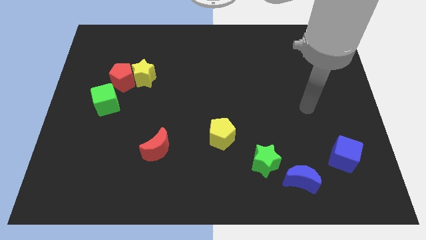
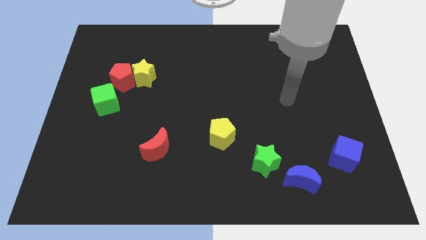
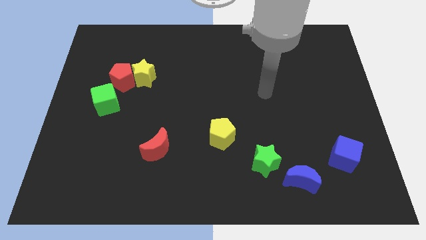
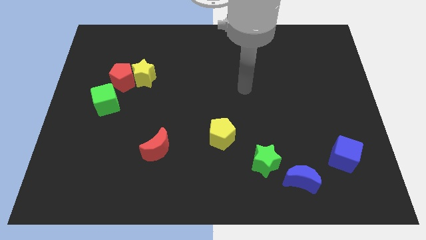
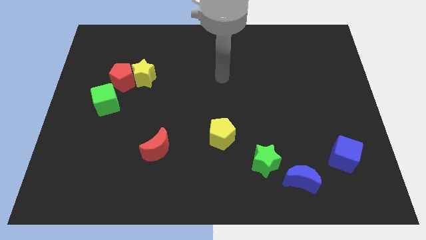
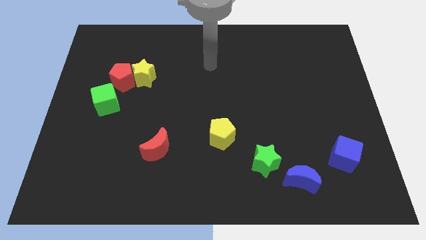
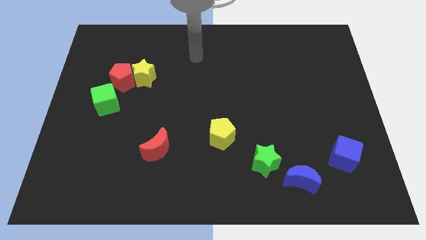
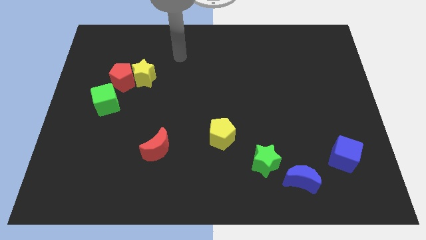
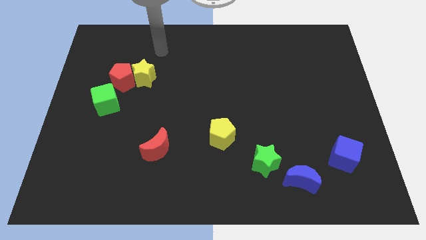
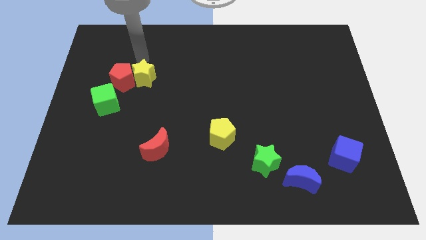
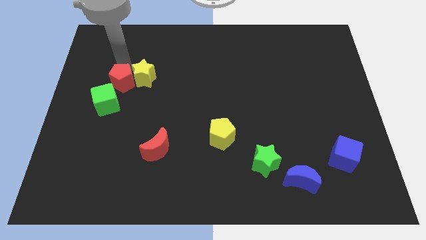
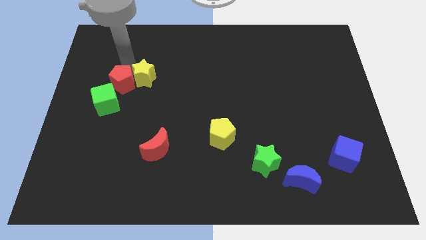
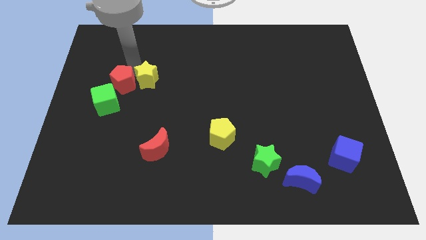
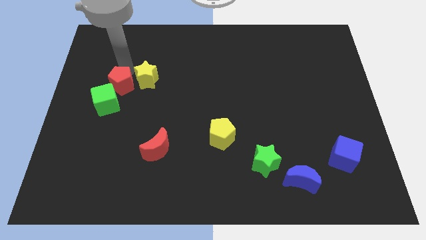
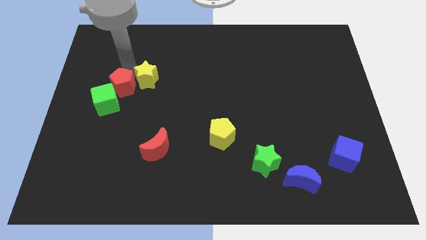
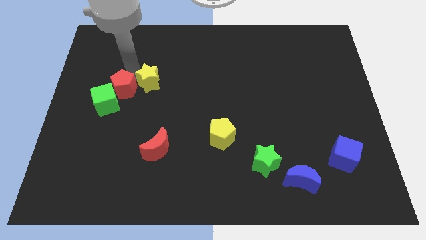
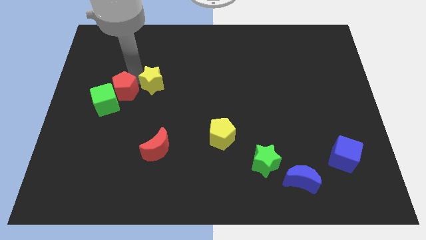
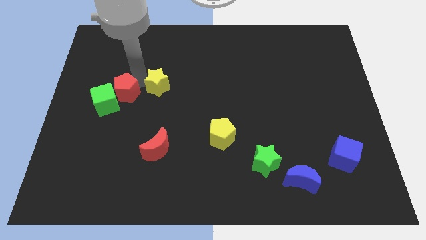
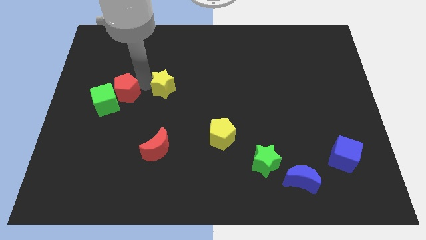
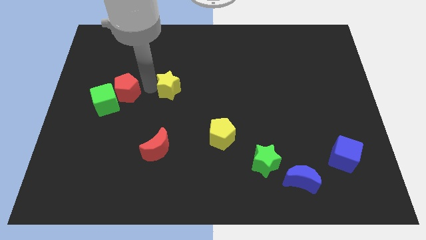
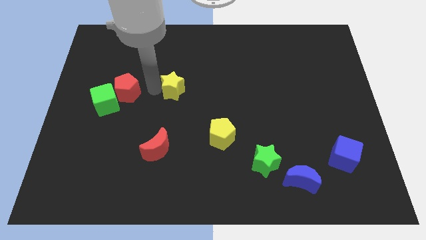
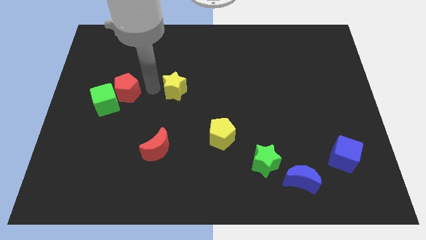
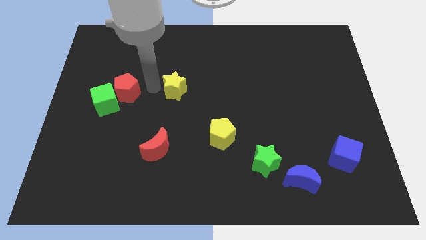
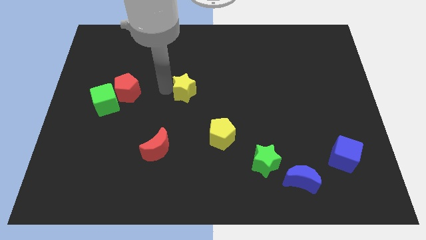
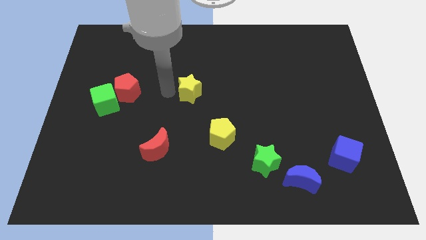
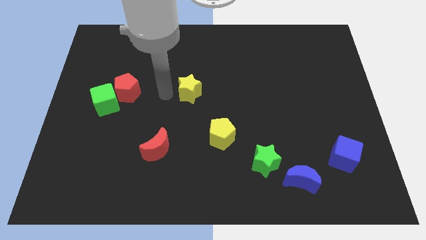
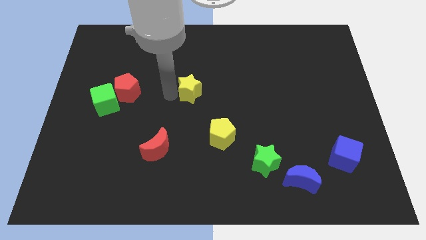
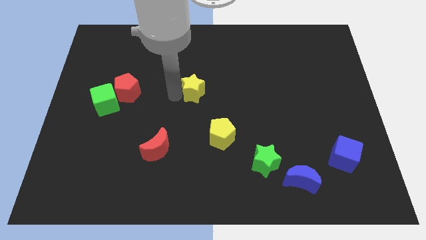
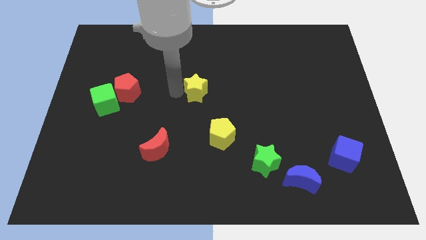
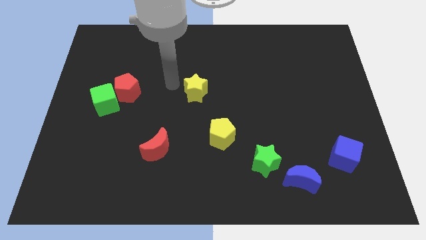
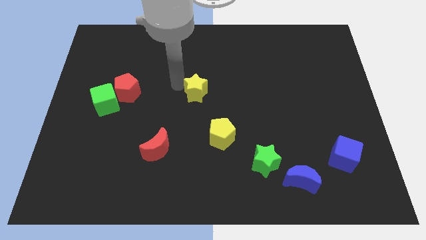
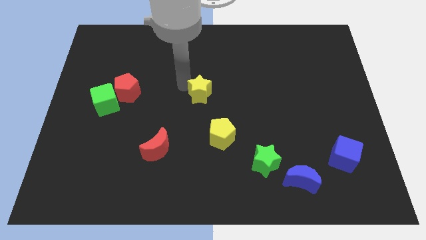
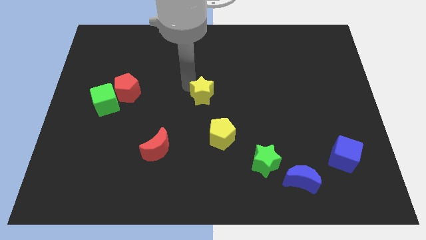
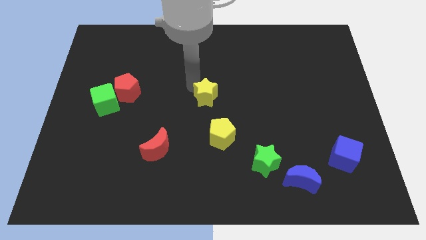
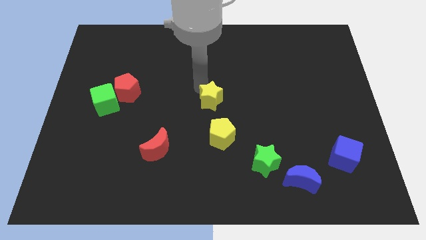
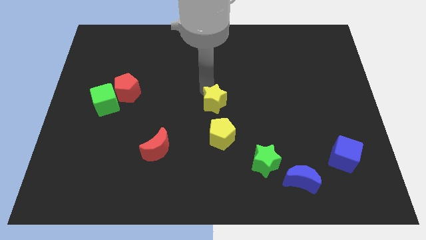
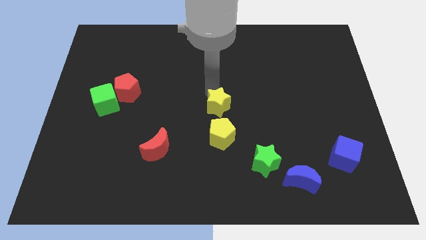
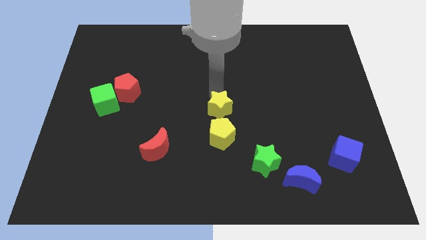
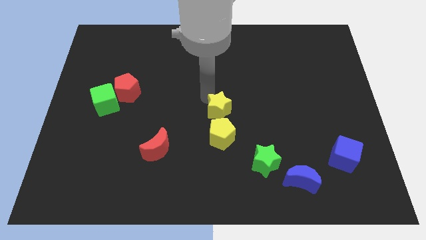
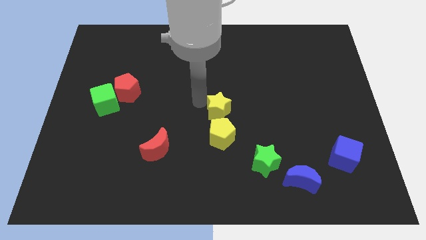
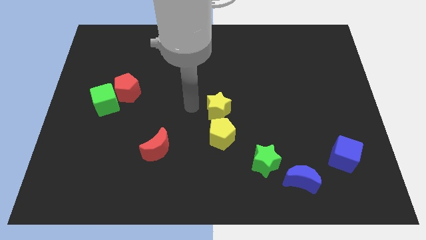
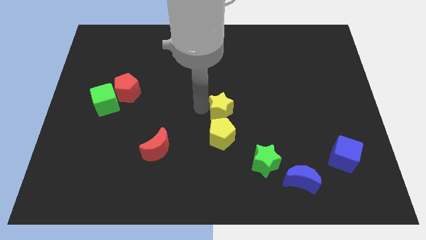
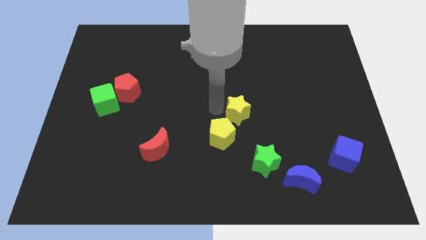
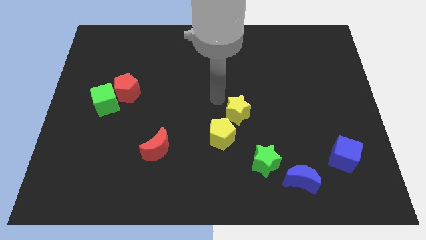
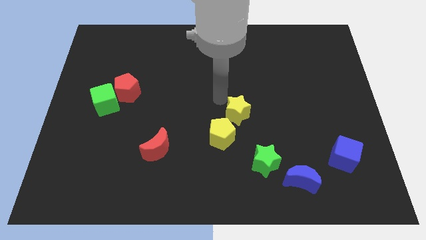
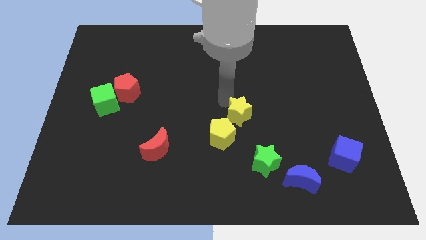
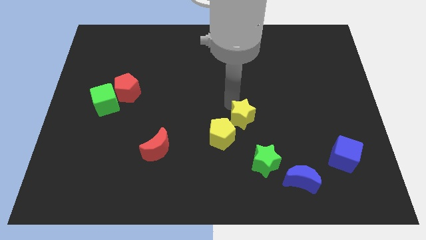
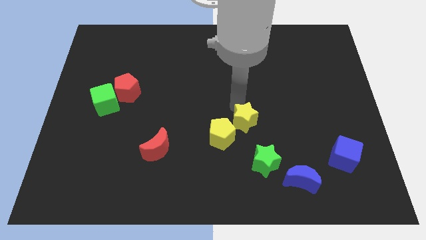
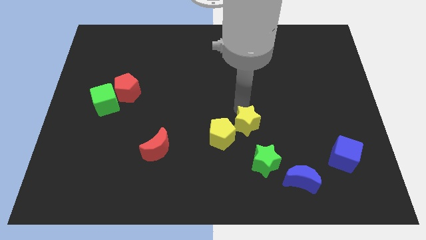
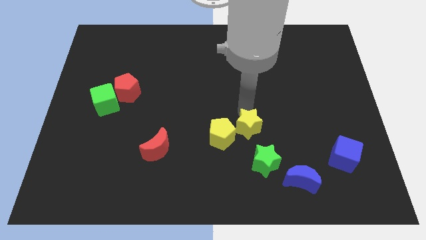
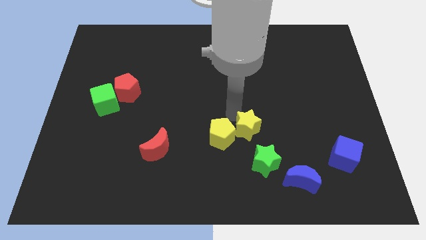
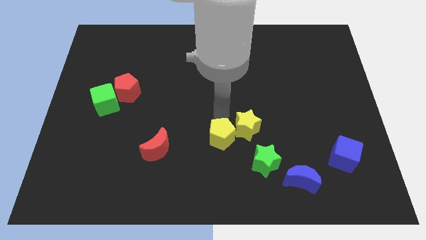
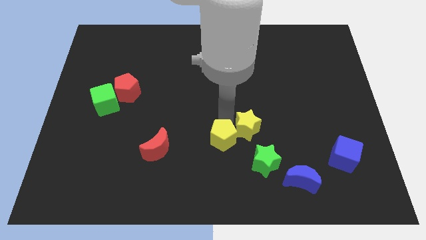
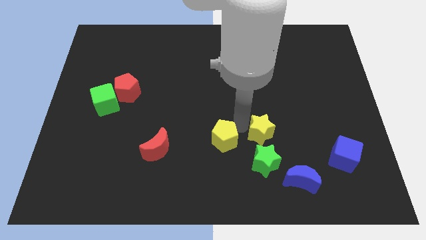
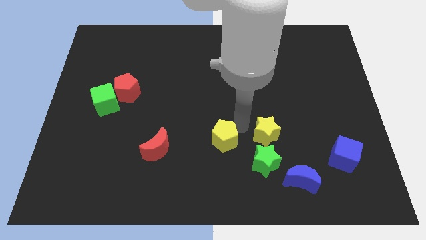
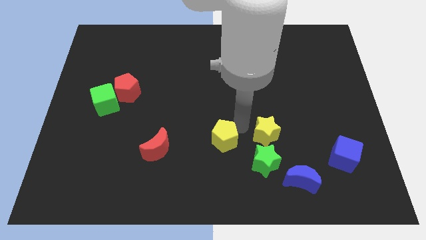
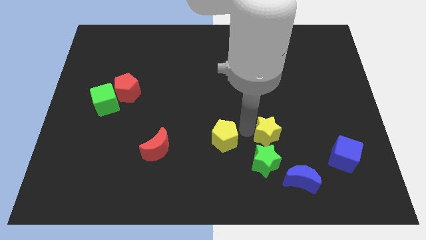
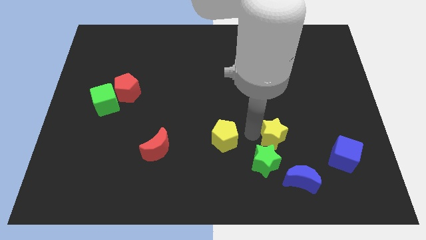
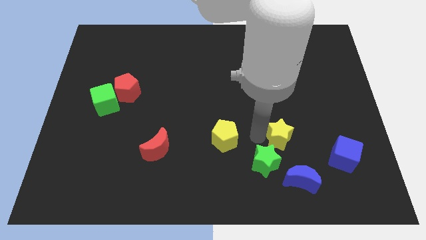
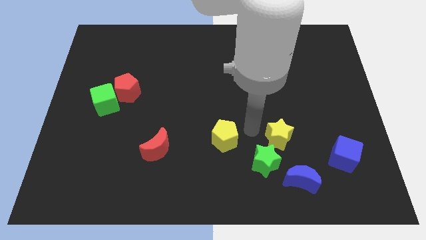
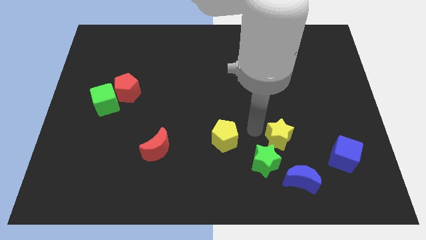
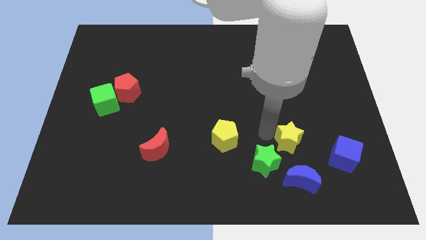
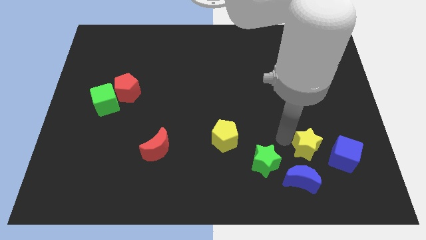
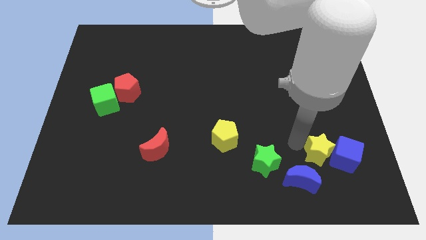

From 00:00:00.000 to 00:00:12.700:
slide the yellow star towards the blue cube

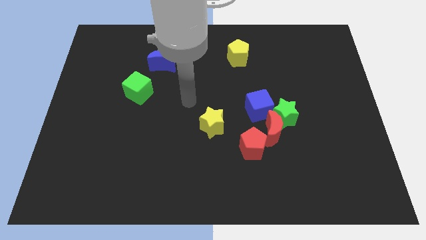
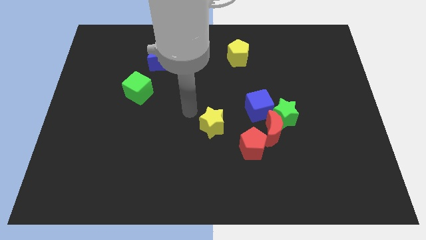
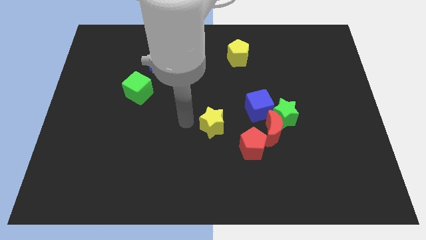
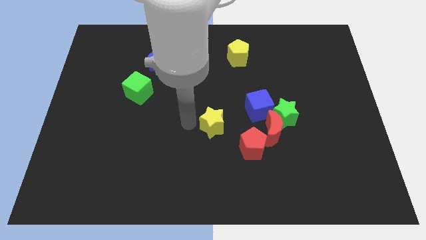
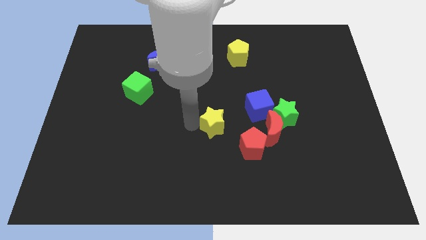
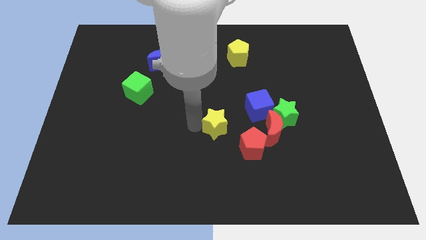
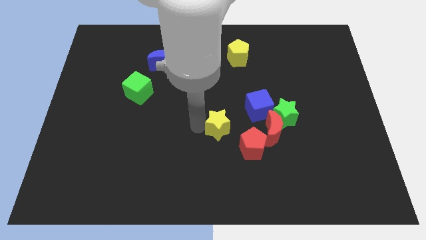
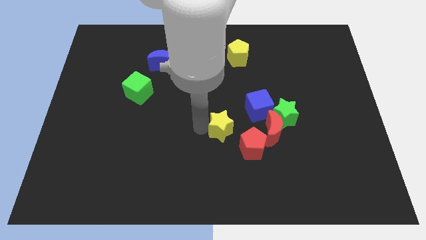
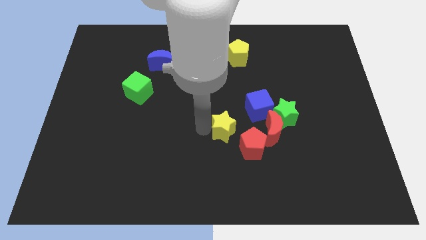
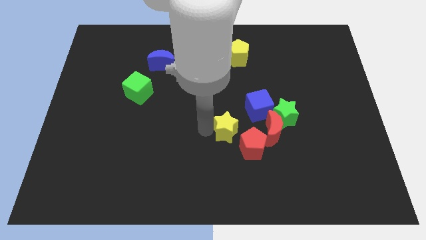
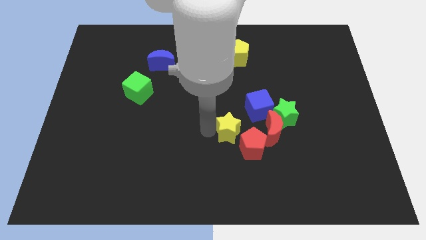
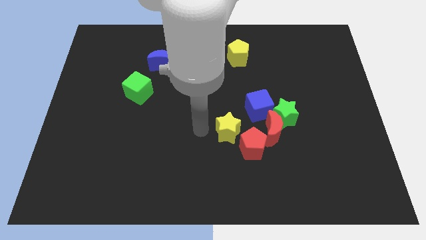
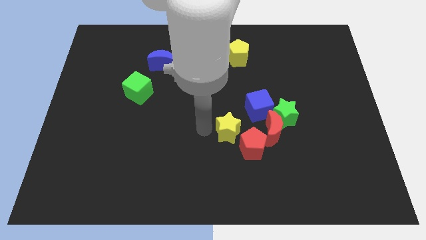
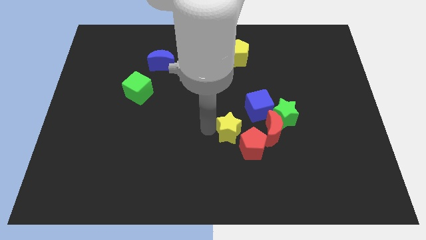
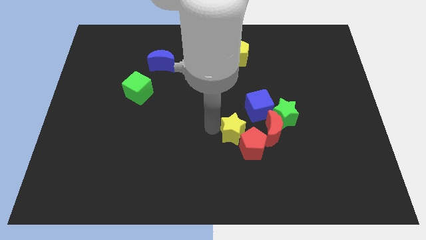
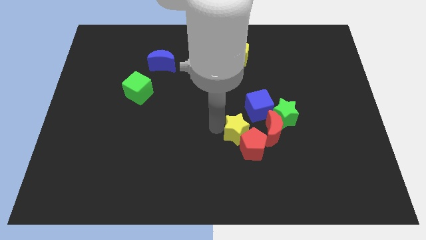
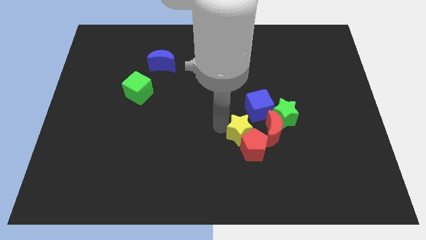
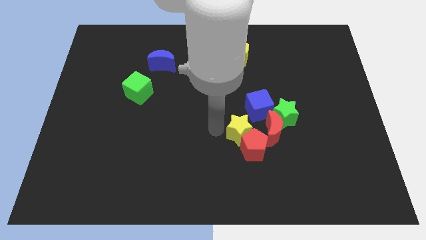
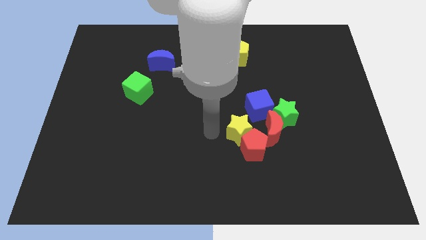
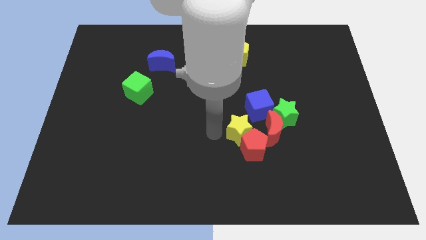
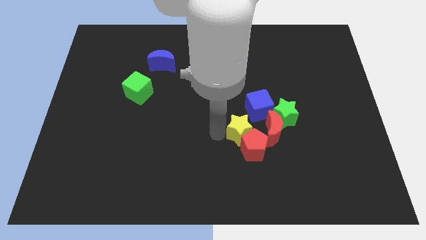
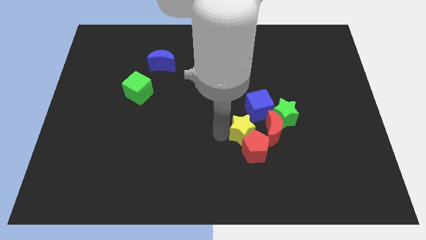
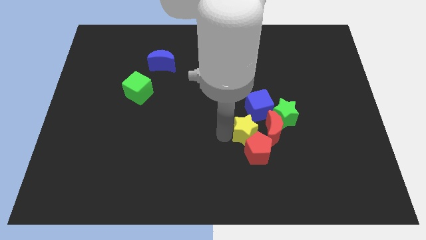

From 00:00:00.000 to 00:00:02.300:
move the yellow star next to the red moon
